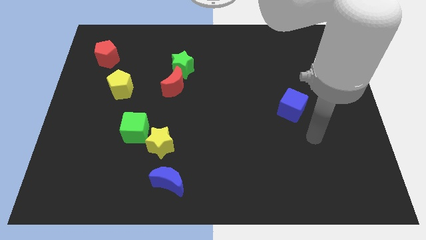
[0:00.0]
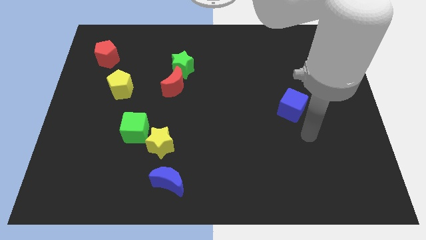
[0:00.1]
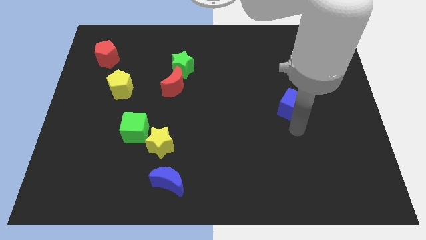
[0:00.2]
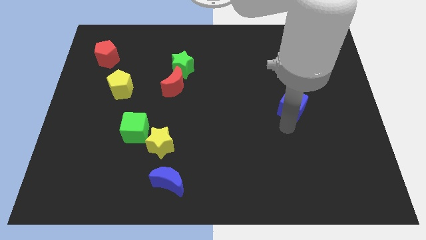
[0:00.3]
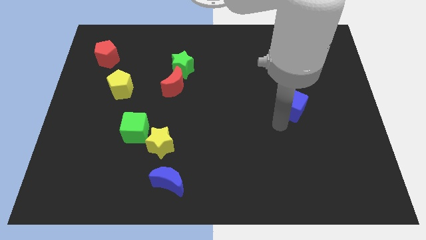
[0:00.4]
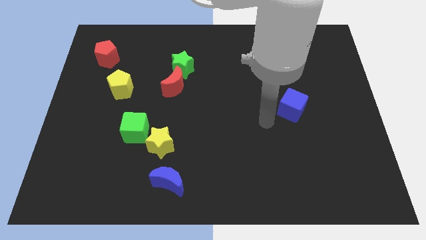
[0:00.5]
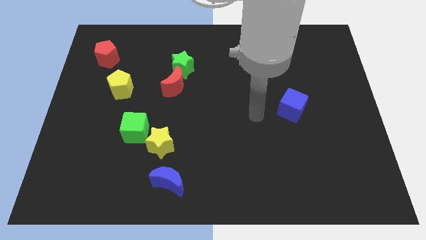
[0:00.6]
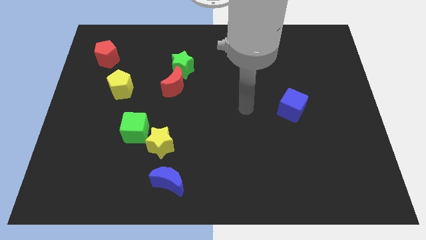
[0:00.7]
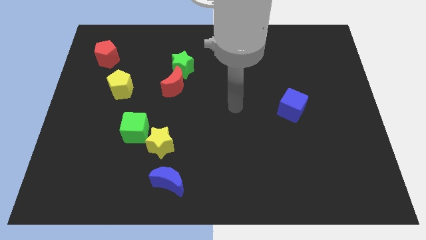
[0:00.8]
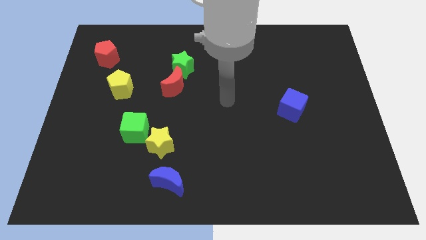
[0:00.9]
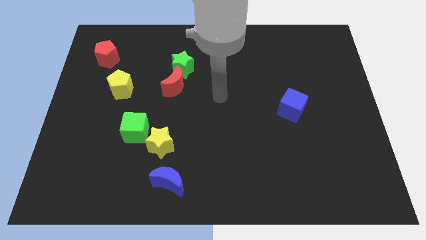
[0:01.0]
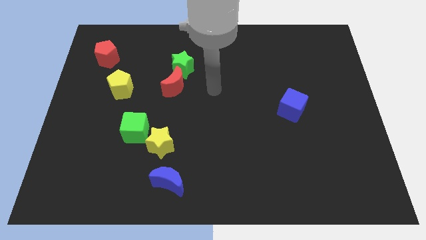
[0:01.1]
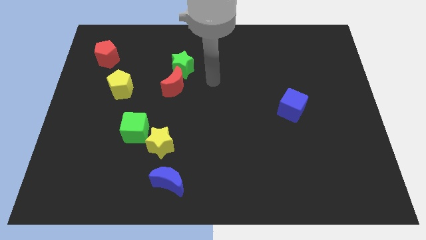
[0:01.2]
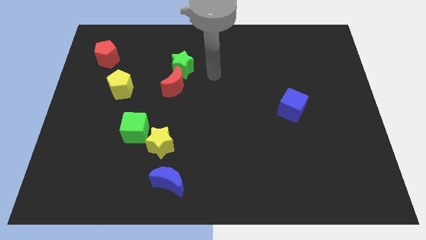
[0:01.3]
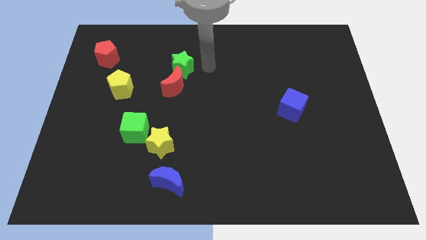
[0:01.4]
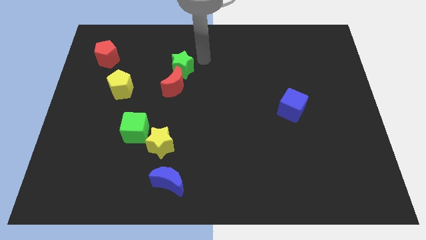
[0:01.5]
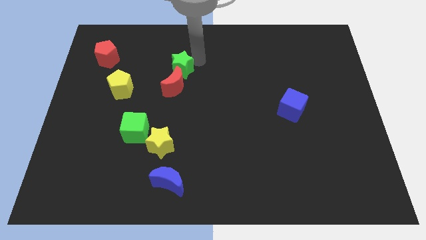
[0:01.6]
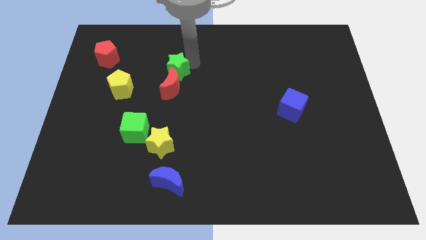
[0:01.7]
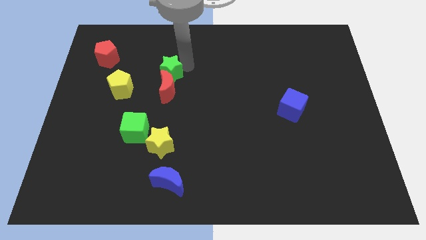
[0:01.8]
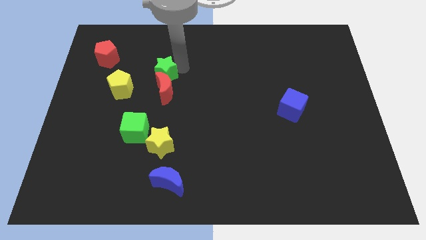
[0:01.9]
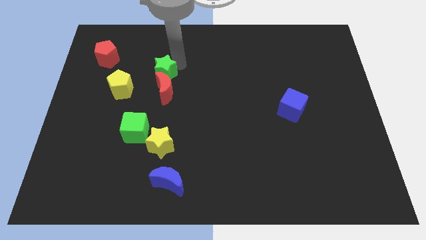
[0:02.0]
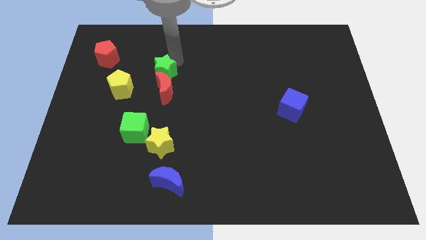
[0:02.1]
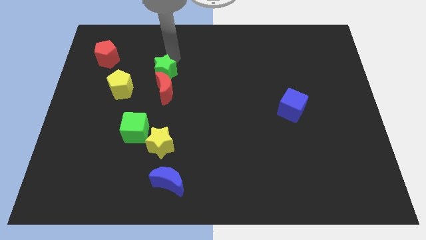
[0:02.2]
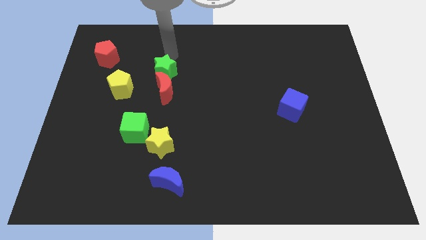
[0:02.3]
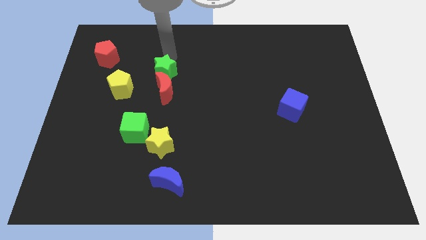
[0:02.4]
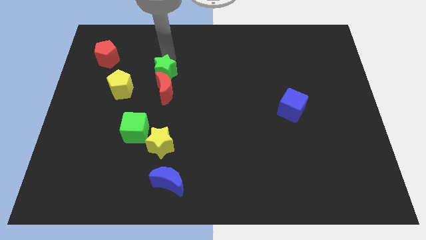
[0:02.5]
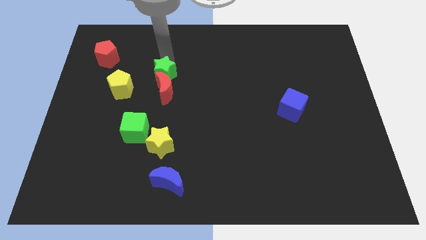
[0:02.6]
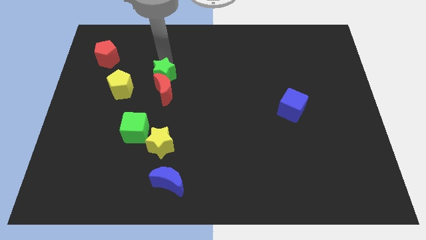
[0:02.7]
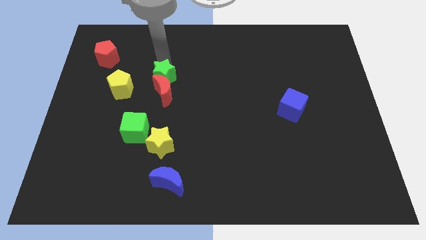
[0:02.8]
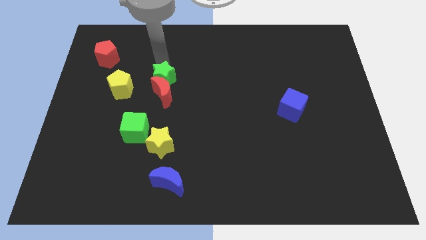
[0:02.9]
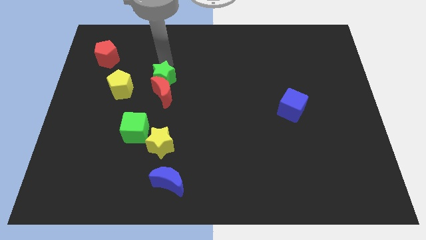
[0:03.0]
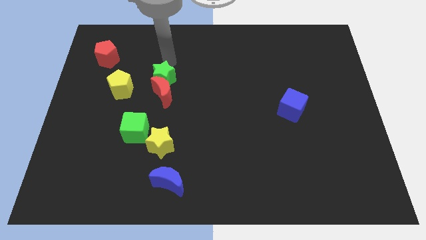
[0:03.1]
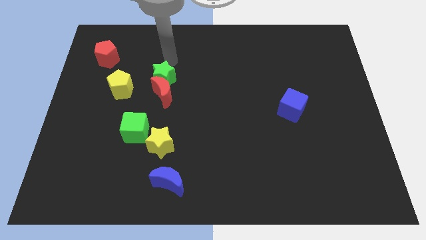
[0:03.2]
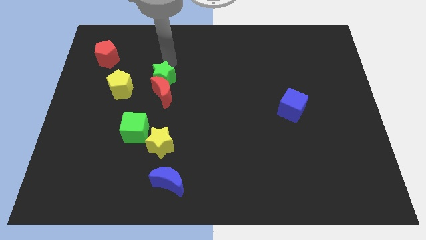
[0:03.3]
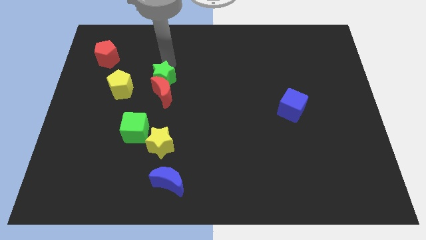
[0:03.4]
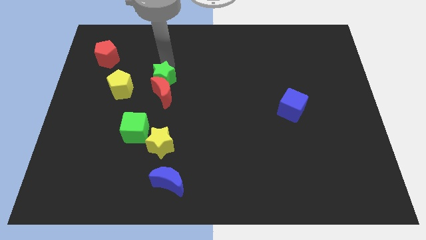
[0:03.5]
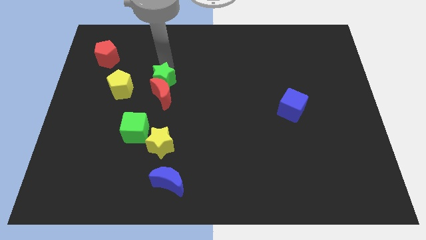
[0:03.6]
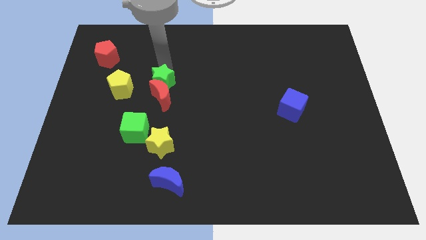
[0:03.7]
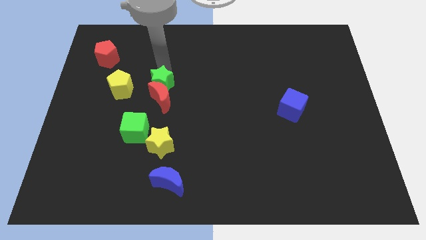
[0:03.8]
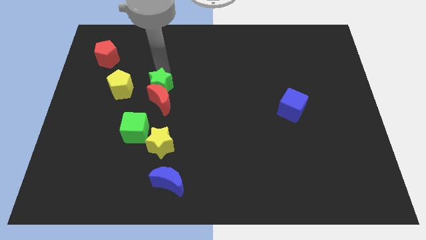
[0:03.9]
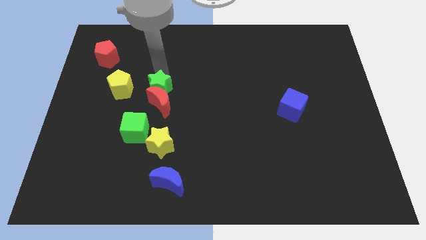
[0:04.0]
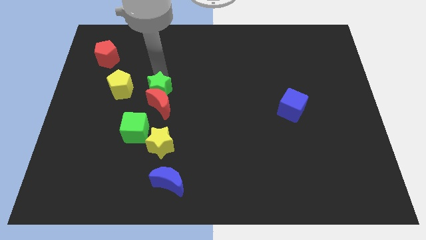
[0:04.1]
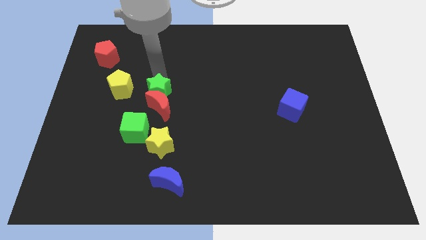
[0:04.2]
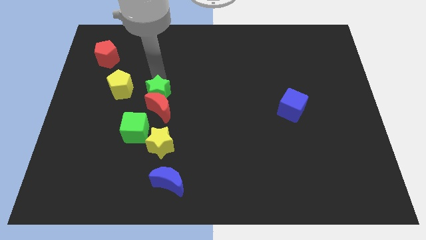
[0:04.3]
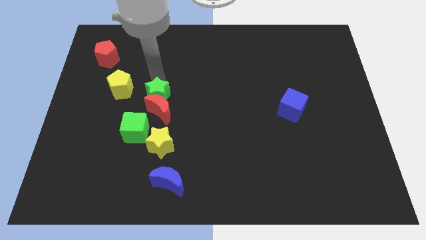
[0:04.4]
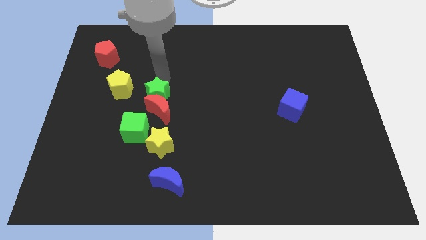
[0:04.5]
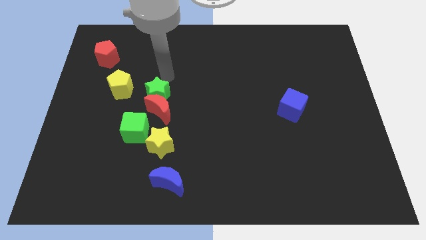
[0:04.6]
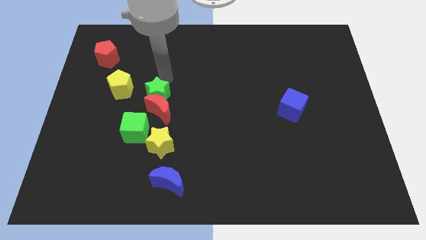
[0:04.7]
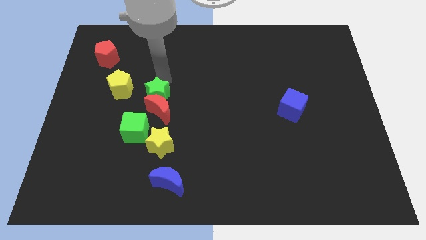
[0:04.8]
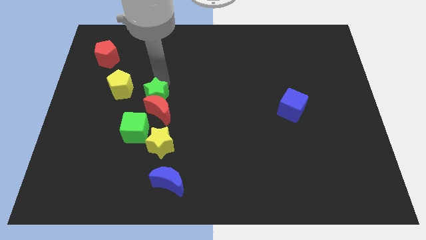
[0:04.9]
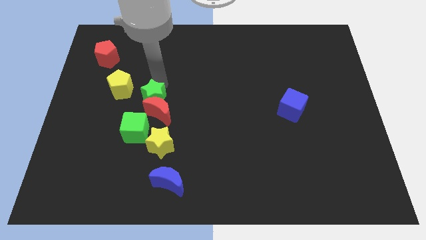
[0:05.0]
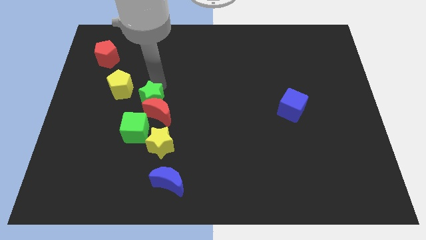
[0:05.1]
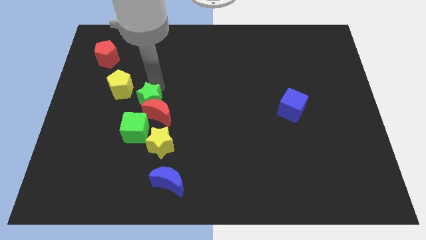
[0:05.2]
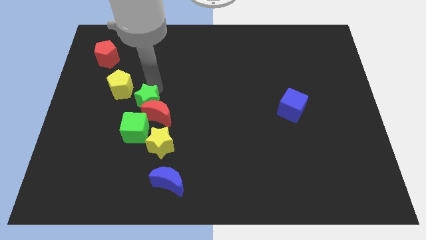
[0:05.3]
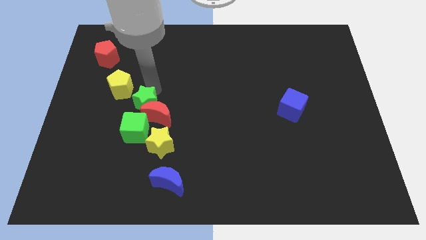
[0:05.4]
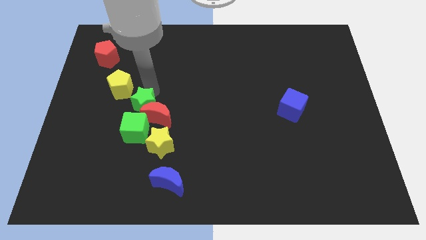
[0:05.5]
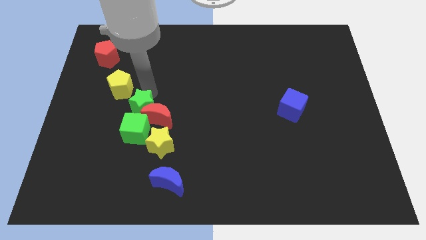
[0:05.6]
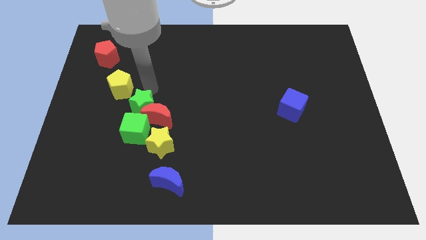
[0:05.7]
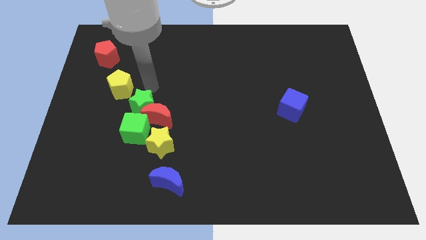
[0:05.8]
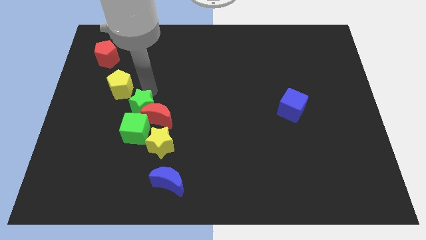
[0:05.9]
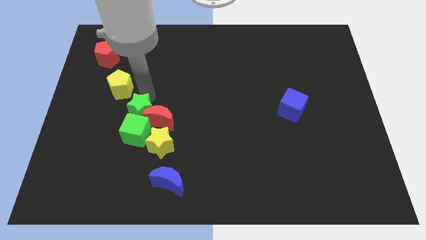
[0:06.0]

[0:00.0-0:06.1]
move the green star to the green cube
